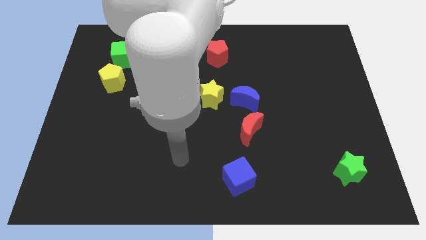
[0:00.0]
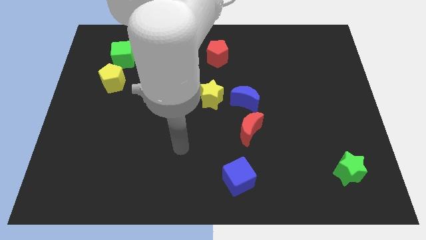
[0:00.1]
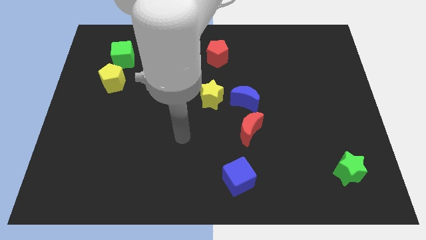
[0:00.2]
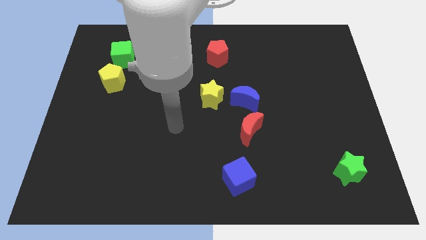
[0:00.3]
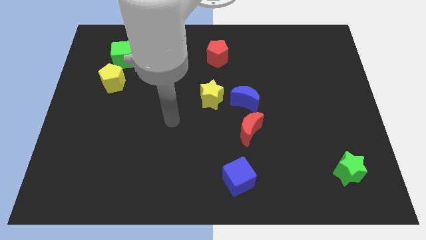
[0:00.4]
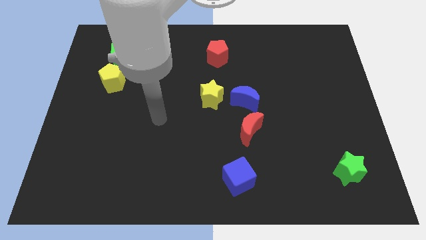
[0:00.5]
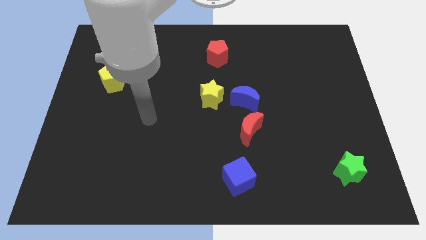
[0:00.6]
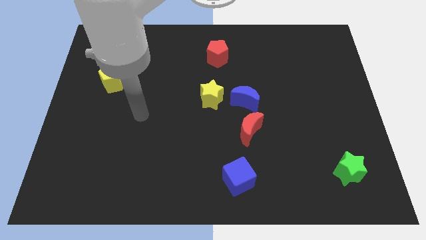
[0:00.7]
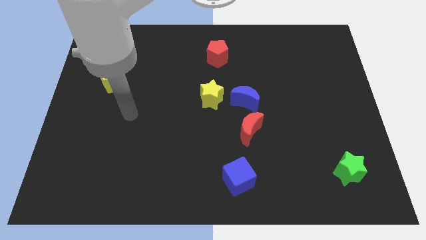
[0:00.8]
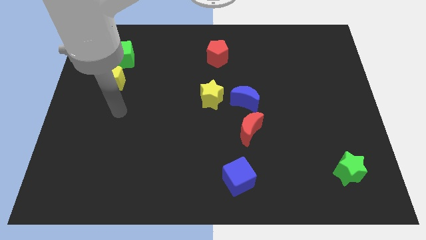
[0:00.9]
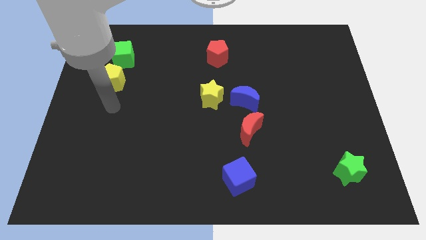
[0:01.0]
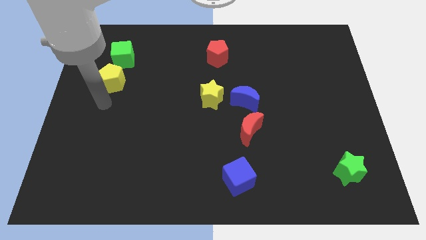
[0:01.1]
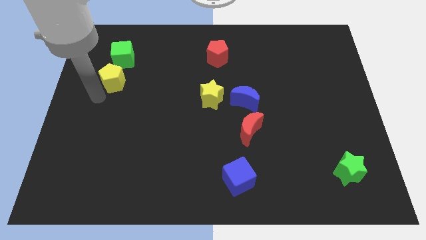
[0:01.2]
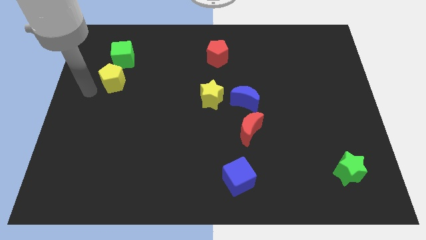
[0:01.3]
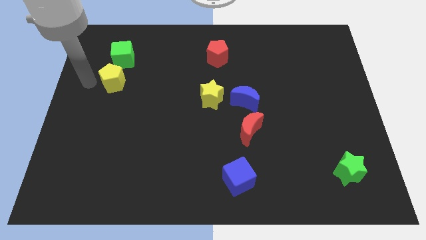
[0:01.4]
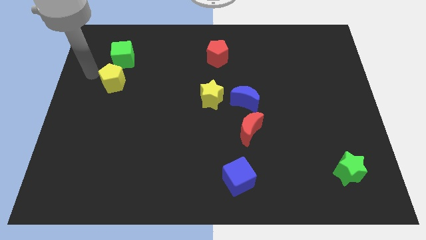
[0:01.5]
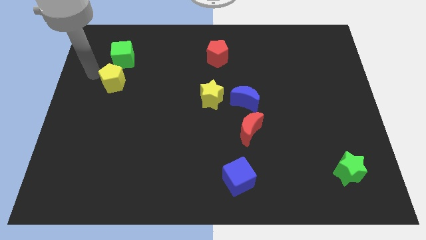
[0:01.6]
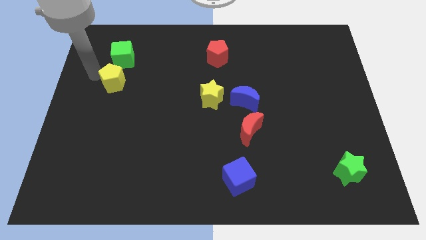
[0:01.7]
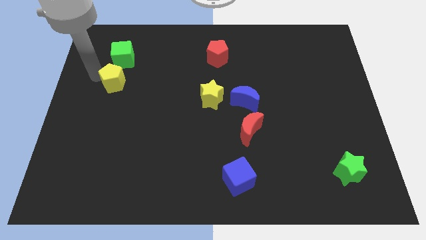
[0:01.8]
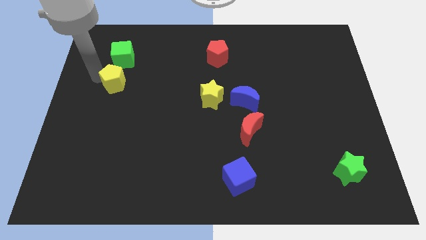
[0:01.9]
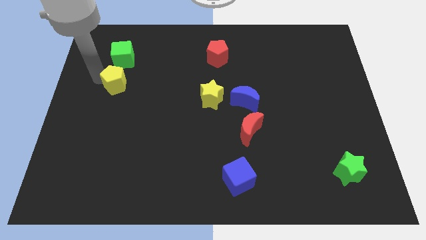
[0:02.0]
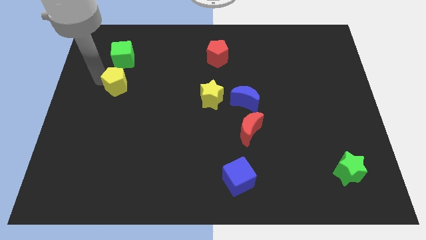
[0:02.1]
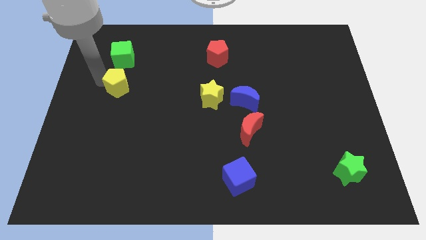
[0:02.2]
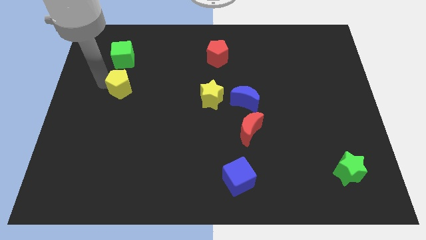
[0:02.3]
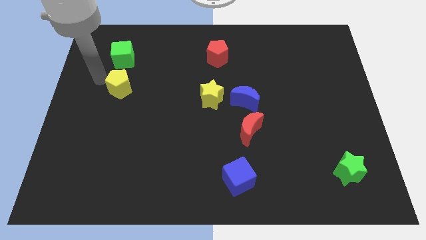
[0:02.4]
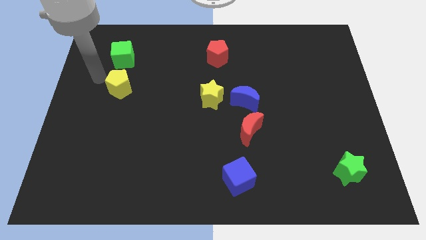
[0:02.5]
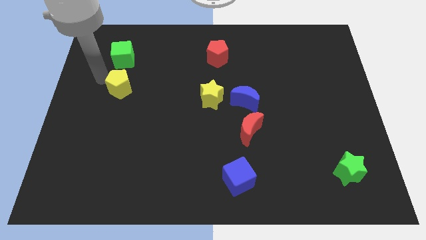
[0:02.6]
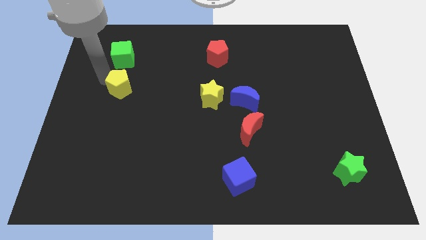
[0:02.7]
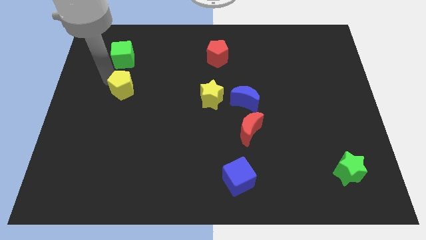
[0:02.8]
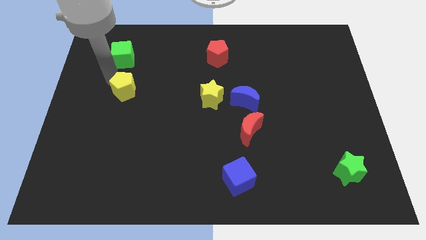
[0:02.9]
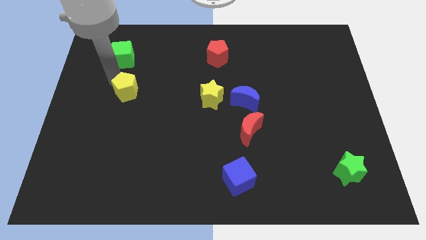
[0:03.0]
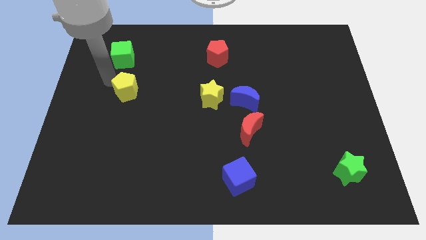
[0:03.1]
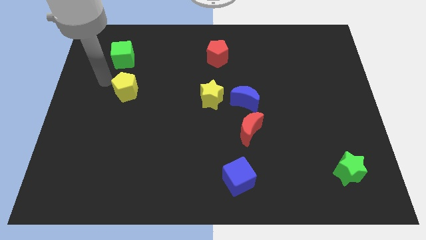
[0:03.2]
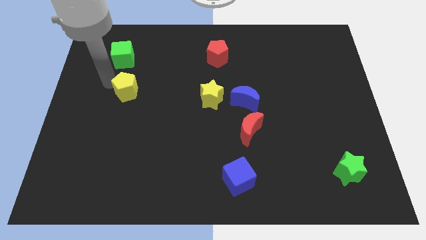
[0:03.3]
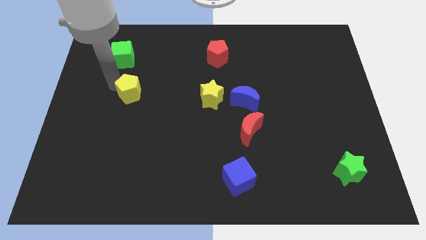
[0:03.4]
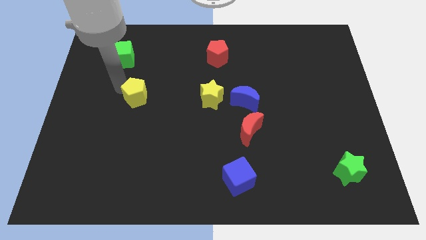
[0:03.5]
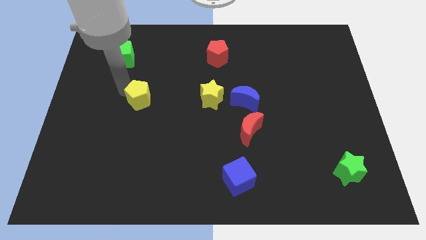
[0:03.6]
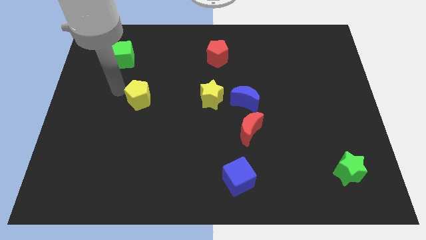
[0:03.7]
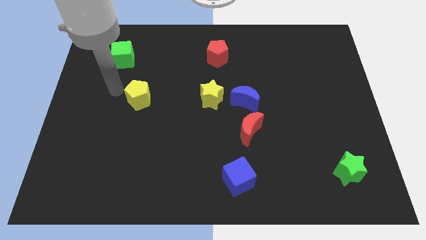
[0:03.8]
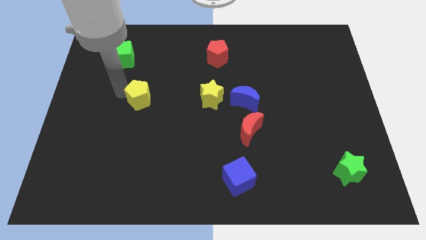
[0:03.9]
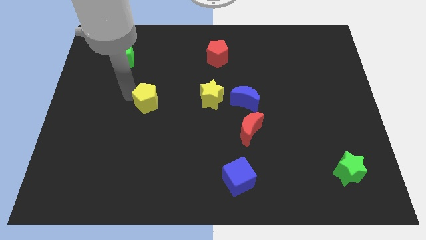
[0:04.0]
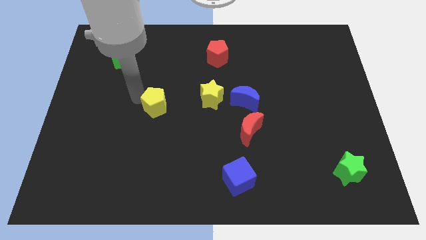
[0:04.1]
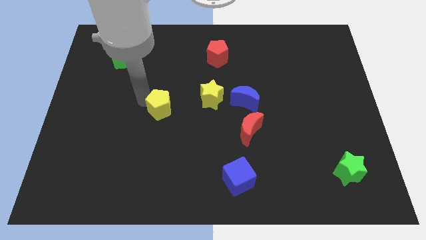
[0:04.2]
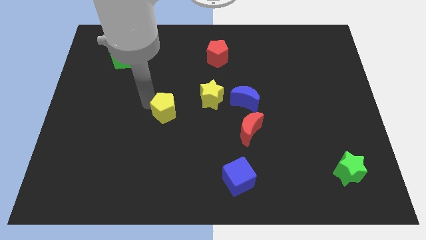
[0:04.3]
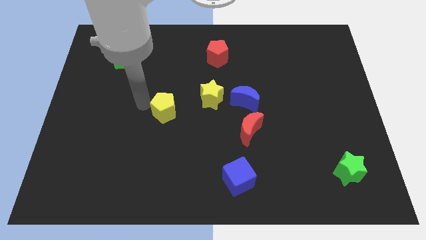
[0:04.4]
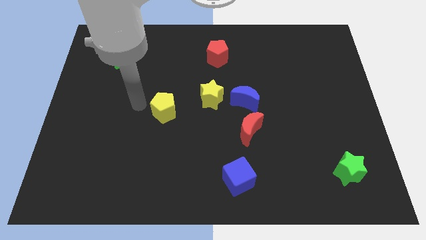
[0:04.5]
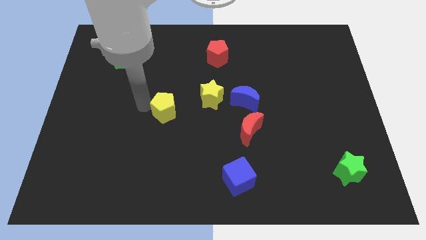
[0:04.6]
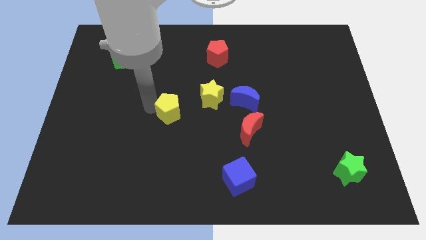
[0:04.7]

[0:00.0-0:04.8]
push the yellow pentagon to the bottom left of the yellow star

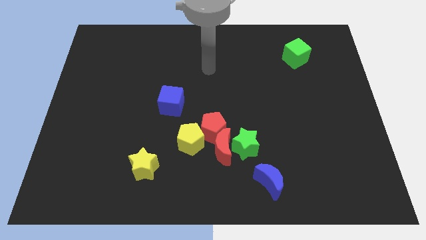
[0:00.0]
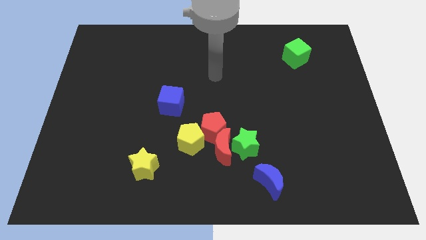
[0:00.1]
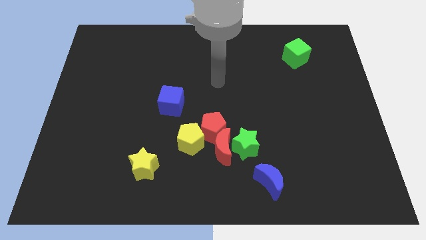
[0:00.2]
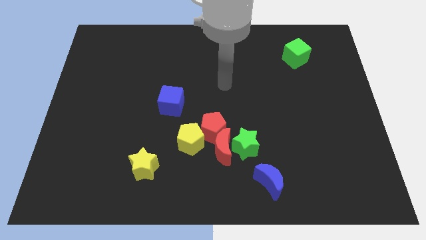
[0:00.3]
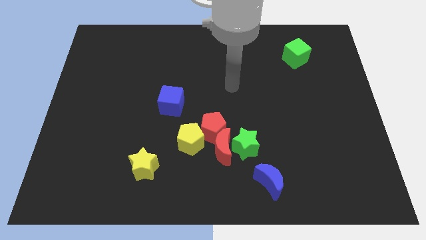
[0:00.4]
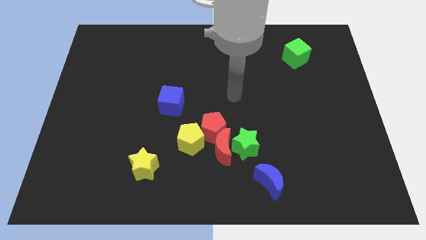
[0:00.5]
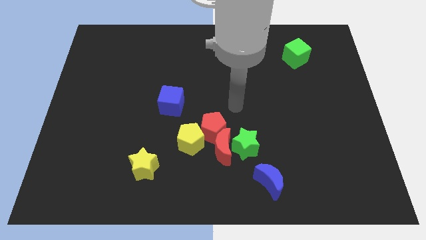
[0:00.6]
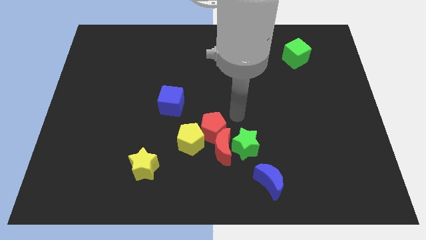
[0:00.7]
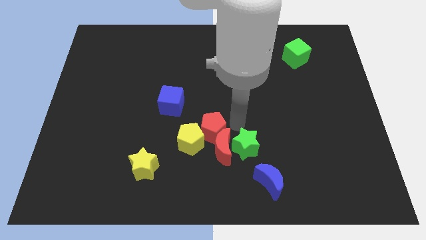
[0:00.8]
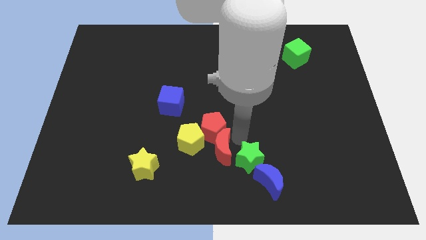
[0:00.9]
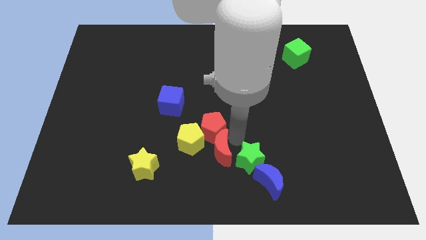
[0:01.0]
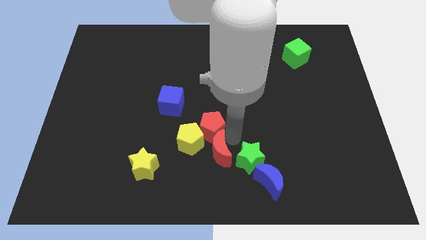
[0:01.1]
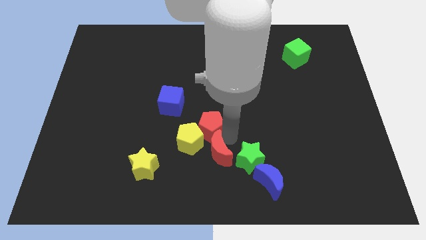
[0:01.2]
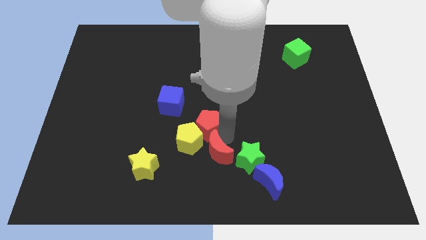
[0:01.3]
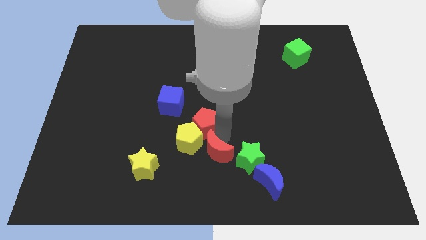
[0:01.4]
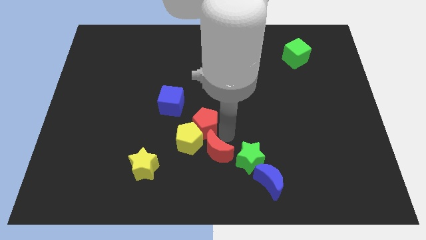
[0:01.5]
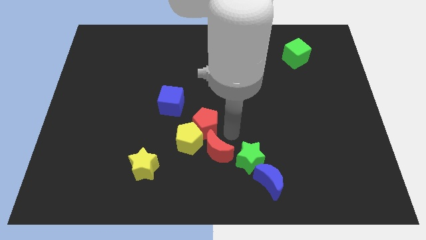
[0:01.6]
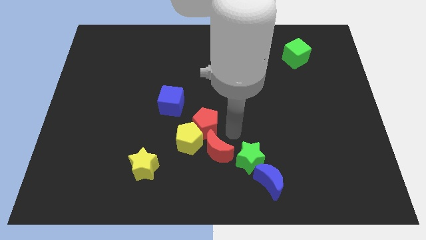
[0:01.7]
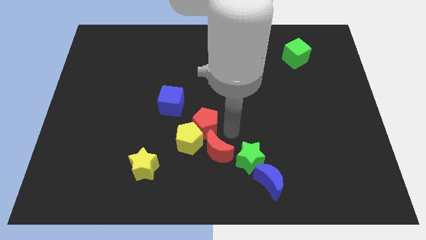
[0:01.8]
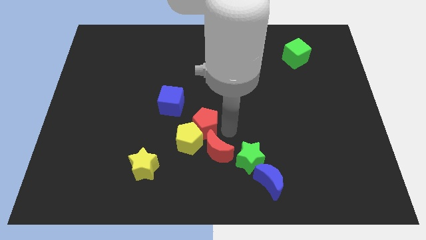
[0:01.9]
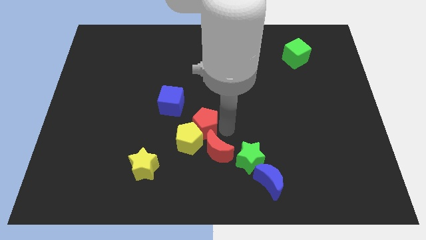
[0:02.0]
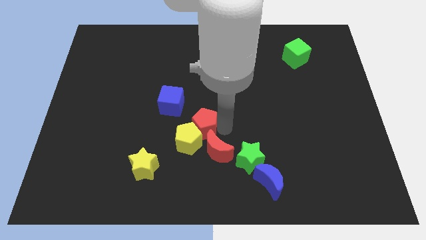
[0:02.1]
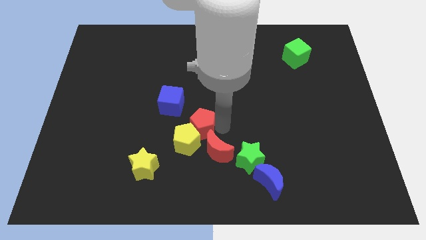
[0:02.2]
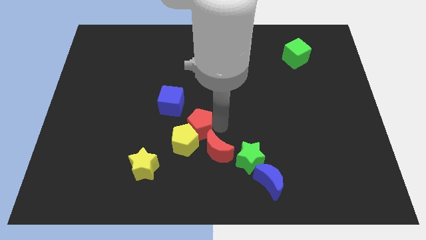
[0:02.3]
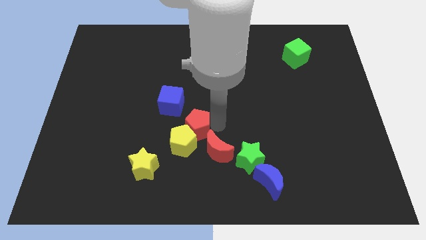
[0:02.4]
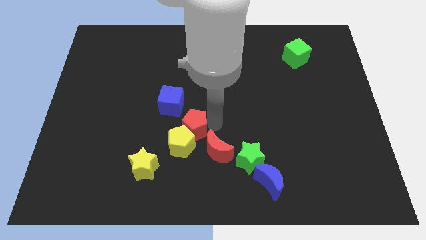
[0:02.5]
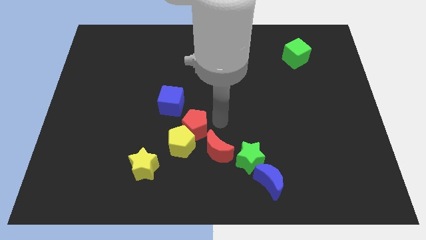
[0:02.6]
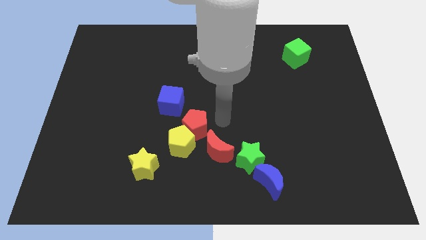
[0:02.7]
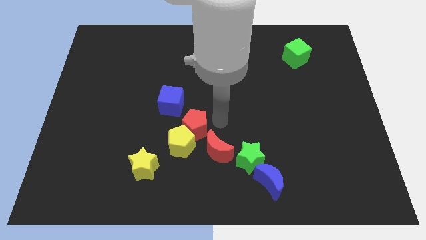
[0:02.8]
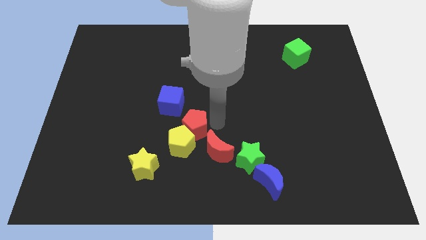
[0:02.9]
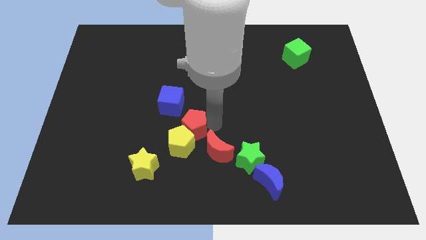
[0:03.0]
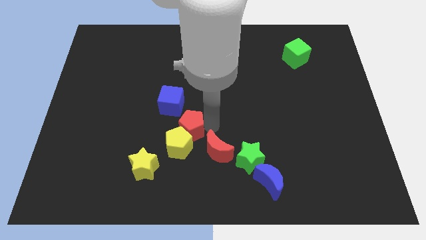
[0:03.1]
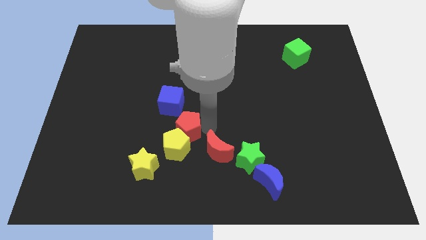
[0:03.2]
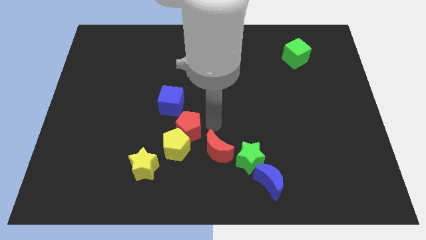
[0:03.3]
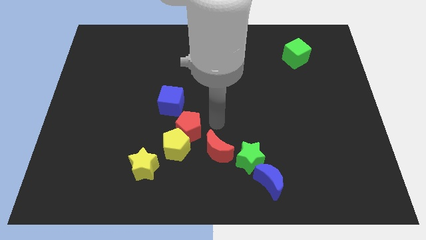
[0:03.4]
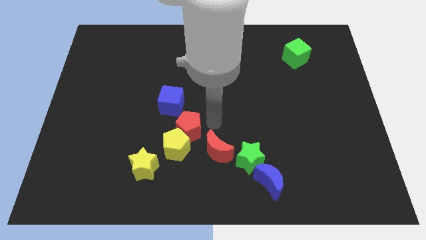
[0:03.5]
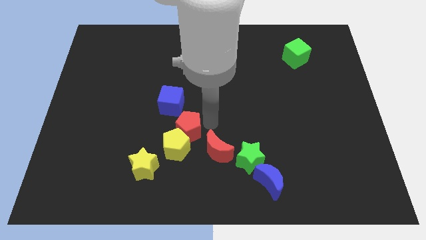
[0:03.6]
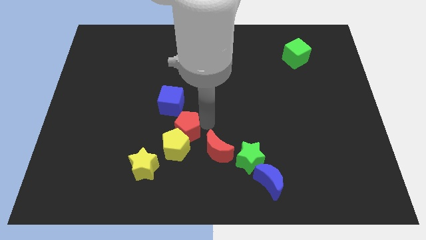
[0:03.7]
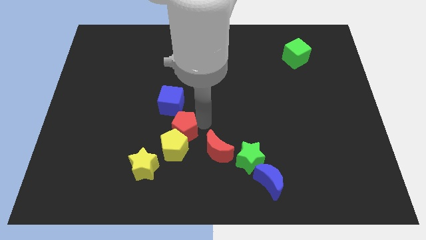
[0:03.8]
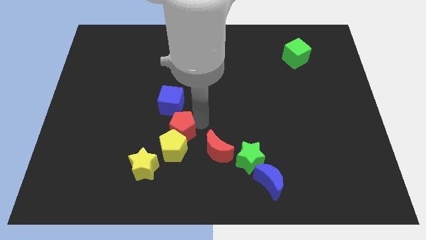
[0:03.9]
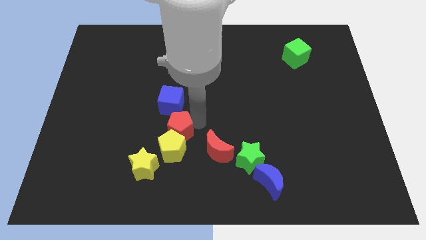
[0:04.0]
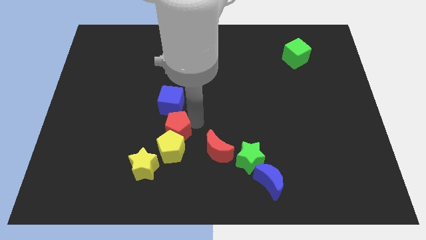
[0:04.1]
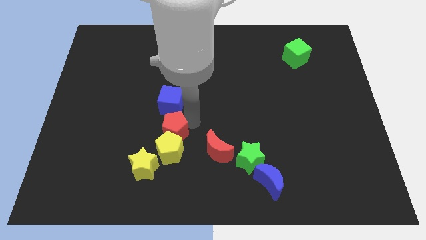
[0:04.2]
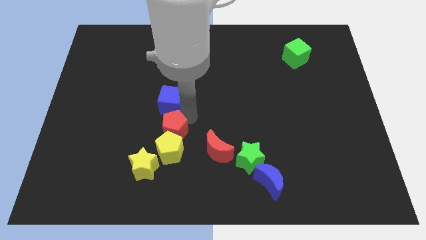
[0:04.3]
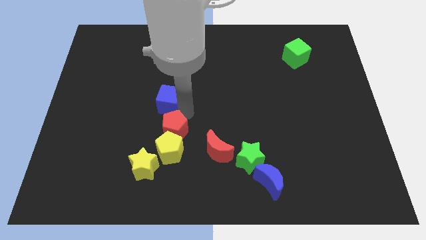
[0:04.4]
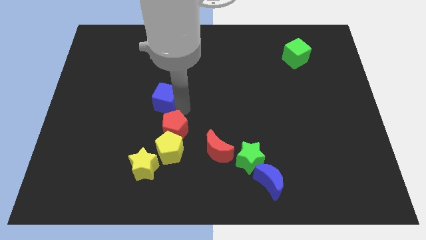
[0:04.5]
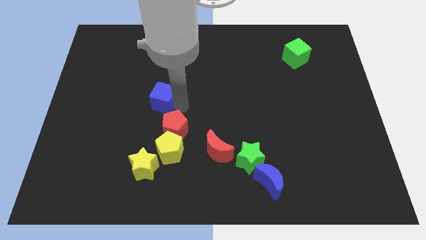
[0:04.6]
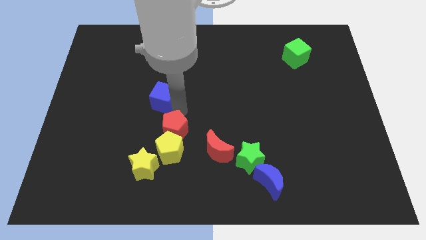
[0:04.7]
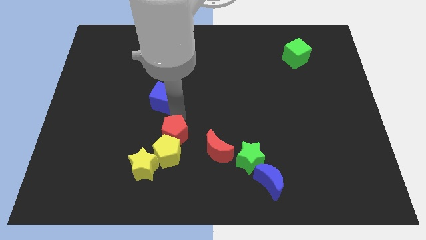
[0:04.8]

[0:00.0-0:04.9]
slide the red pentagon to the left side of the red moon
